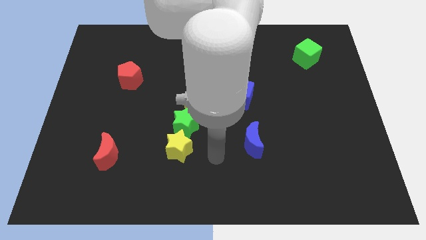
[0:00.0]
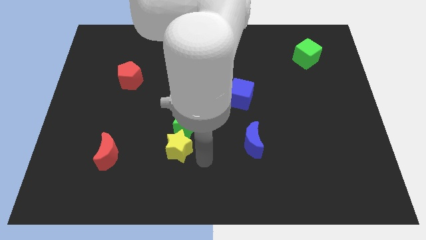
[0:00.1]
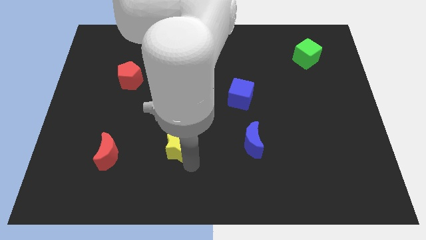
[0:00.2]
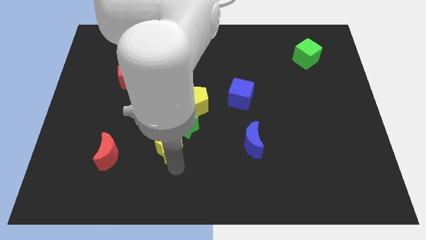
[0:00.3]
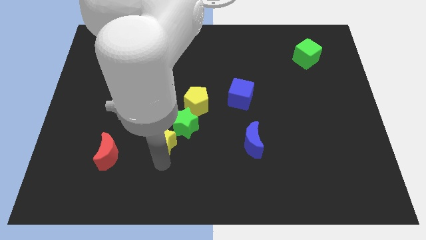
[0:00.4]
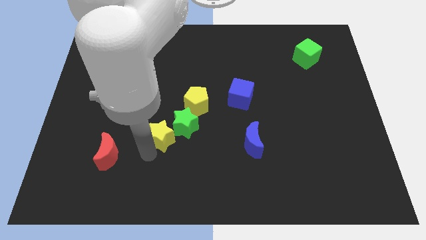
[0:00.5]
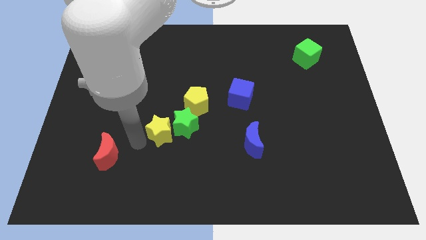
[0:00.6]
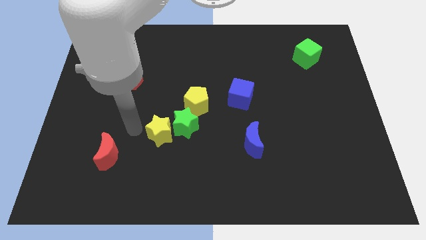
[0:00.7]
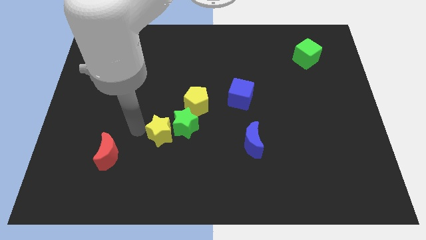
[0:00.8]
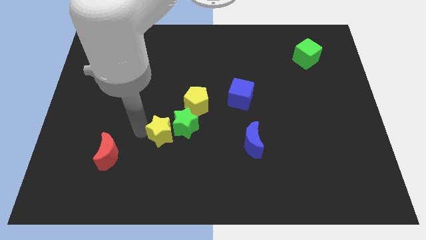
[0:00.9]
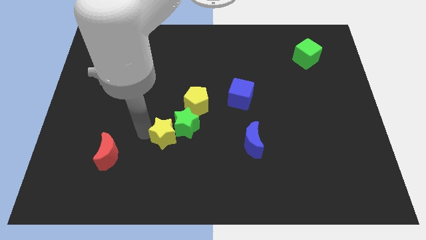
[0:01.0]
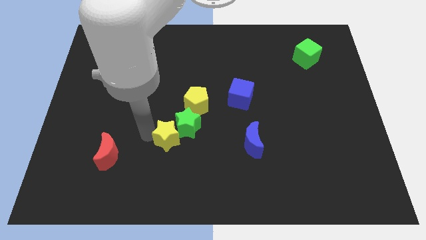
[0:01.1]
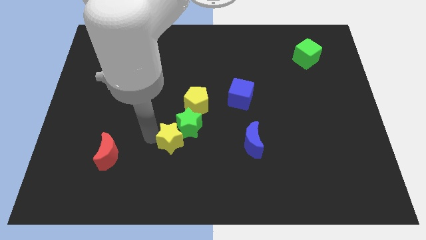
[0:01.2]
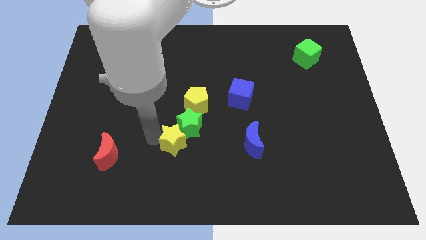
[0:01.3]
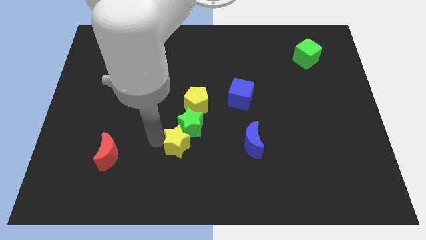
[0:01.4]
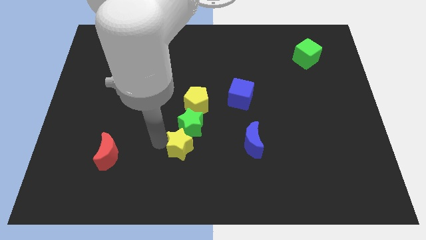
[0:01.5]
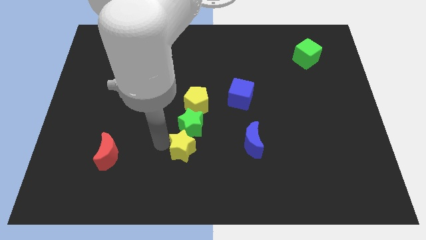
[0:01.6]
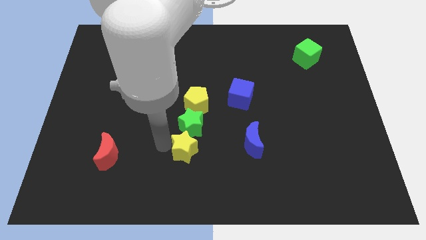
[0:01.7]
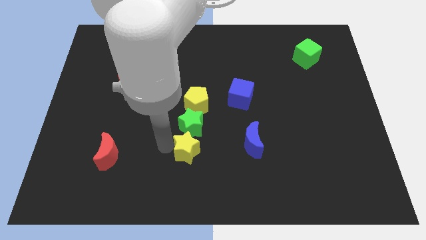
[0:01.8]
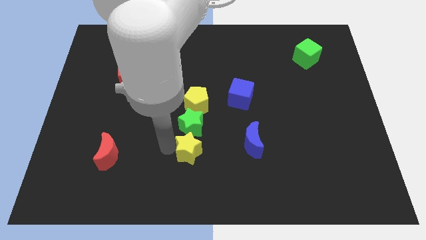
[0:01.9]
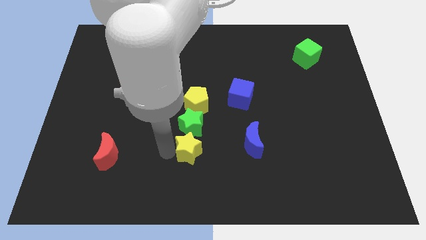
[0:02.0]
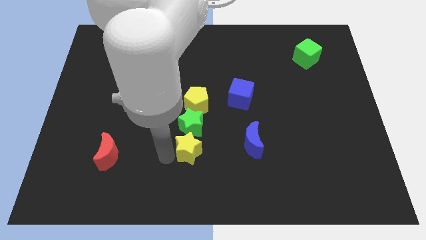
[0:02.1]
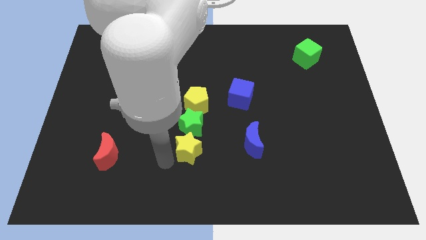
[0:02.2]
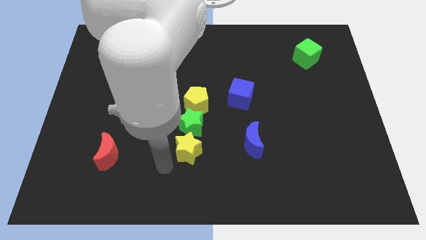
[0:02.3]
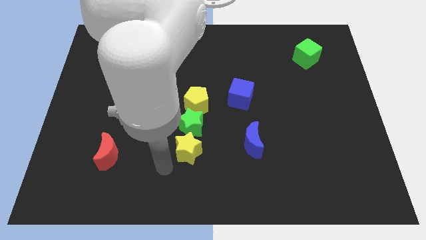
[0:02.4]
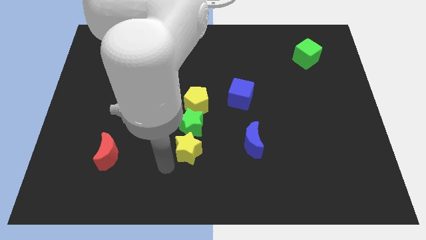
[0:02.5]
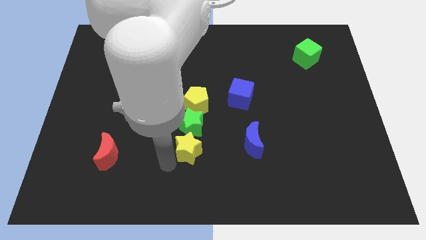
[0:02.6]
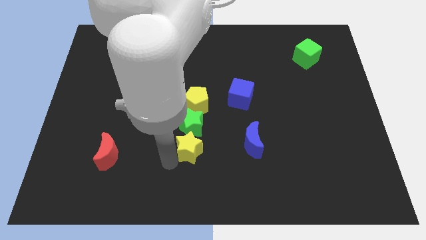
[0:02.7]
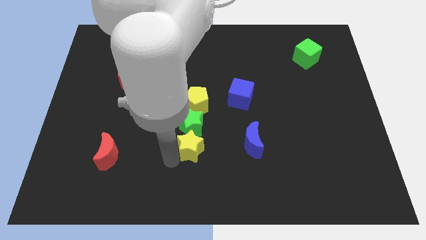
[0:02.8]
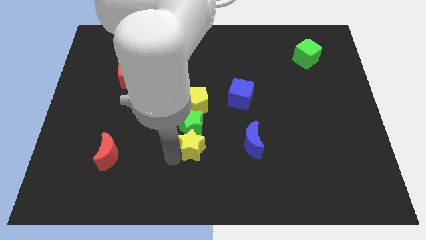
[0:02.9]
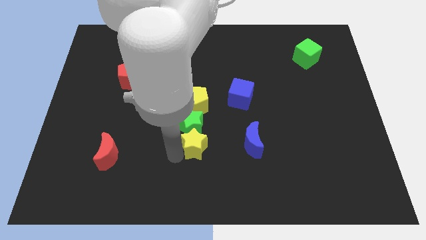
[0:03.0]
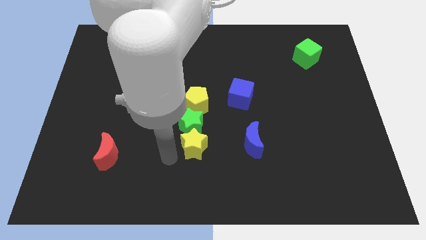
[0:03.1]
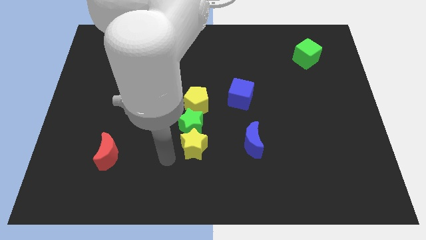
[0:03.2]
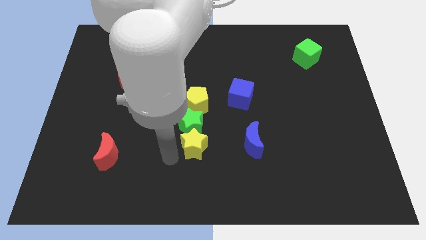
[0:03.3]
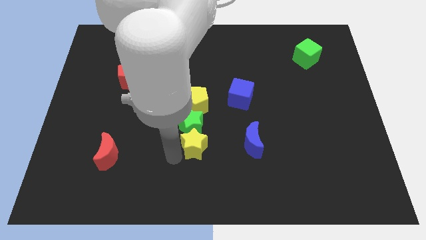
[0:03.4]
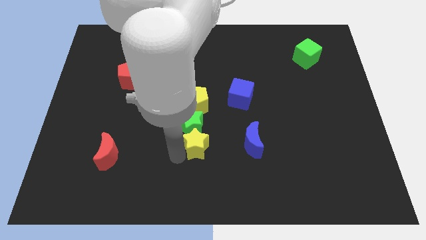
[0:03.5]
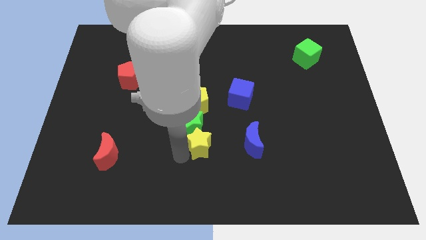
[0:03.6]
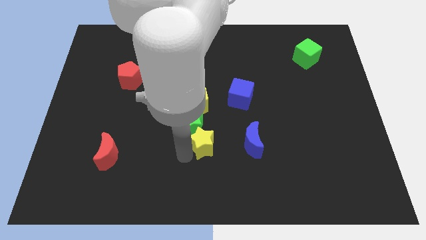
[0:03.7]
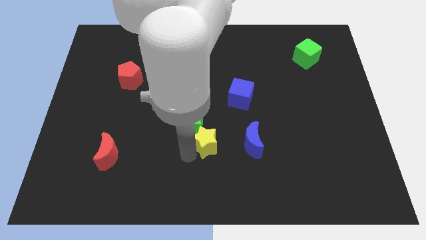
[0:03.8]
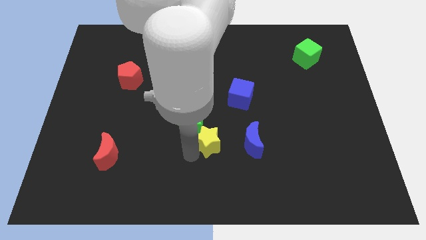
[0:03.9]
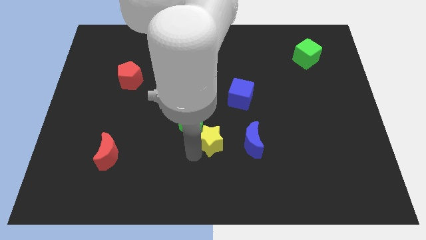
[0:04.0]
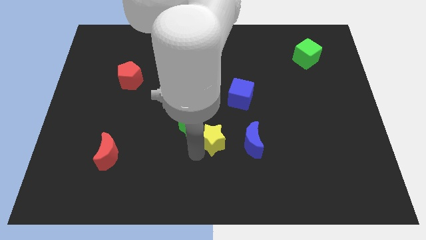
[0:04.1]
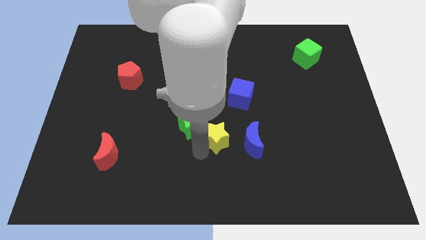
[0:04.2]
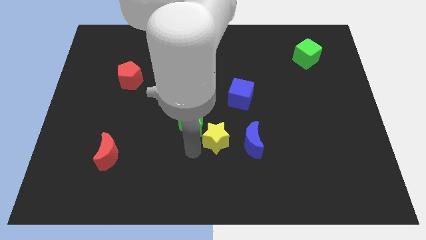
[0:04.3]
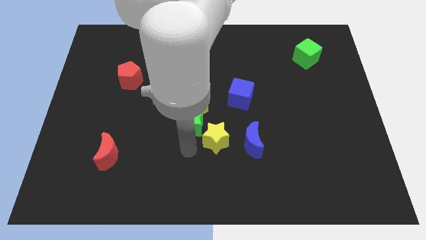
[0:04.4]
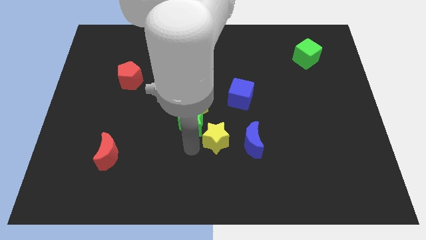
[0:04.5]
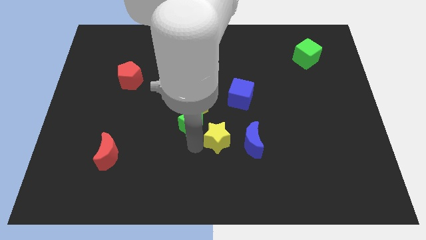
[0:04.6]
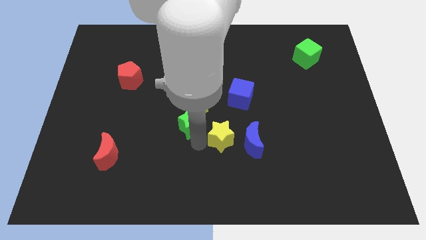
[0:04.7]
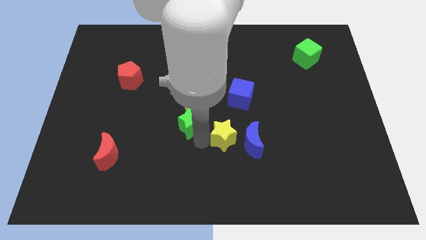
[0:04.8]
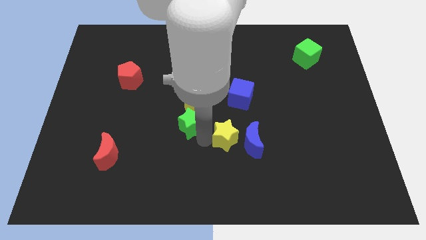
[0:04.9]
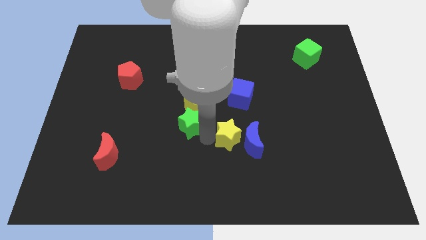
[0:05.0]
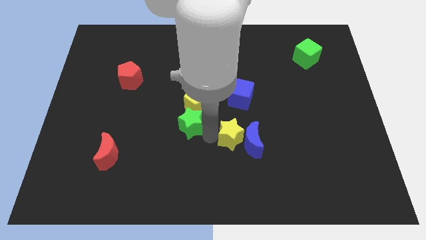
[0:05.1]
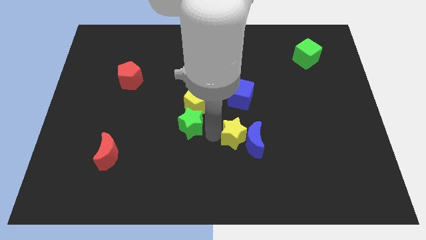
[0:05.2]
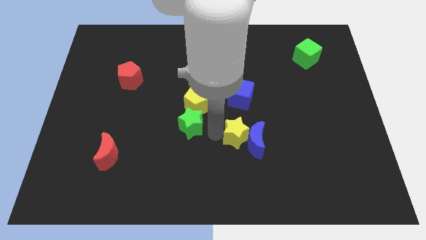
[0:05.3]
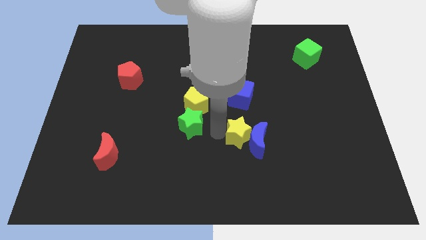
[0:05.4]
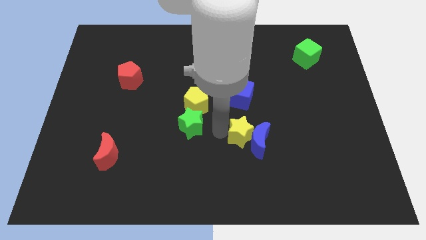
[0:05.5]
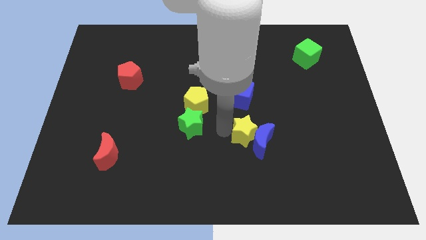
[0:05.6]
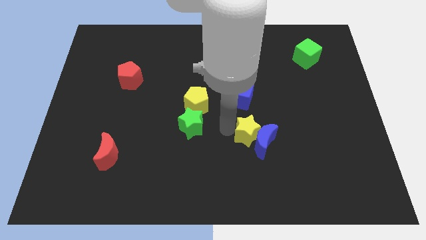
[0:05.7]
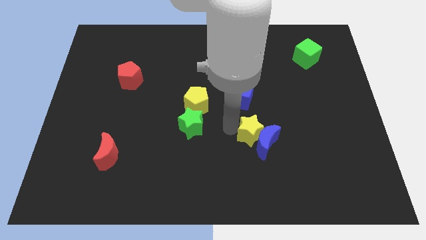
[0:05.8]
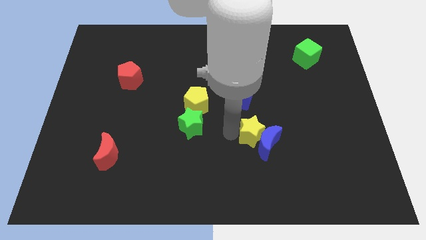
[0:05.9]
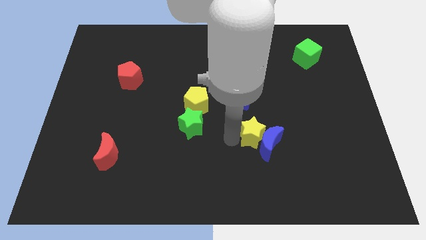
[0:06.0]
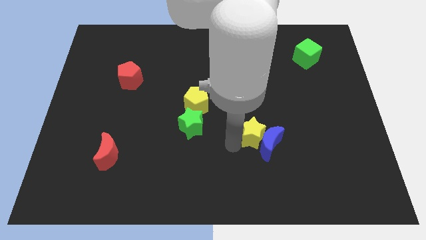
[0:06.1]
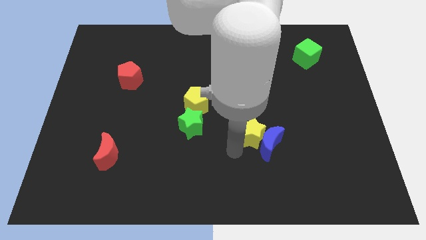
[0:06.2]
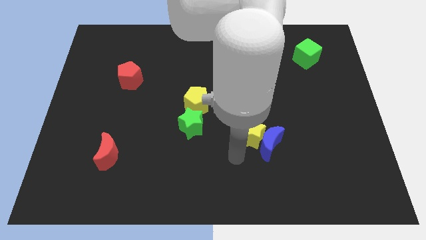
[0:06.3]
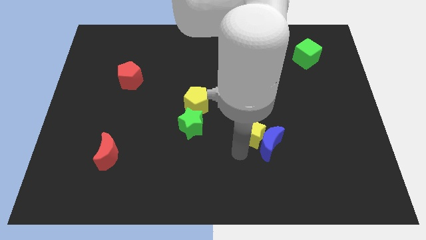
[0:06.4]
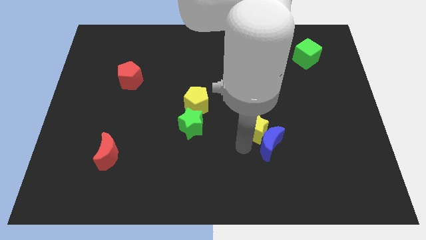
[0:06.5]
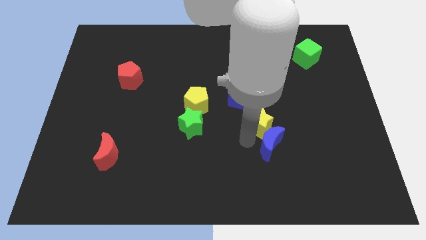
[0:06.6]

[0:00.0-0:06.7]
push the yellow star to the bottom right side of the blue cube

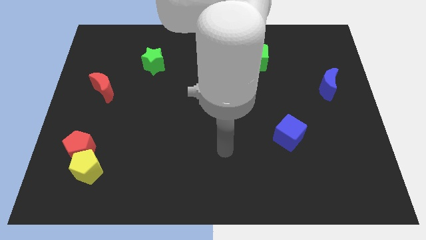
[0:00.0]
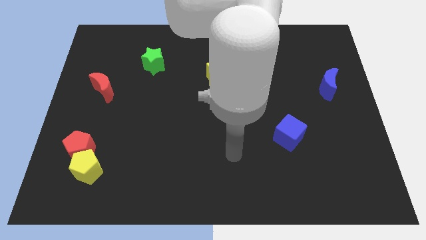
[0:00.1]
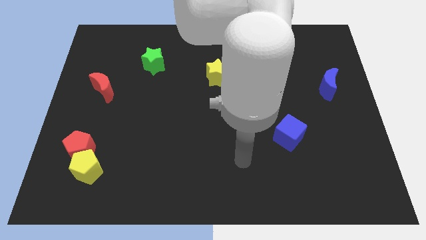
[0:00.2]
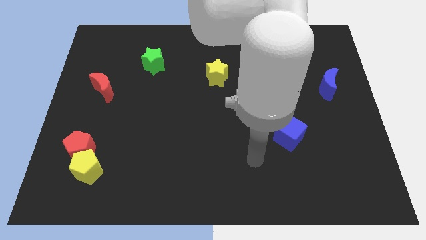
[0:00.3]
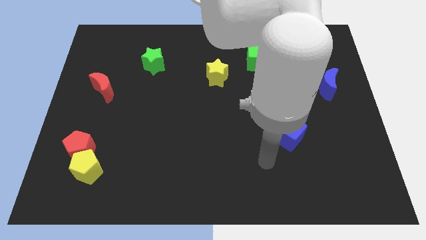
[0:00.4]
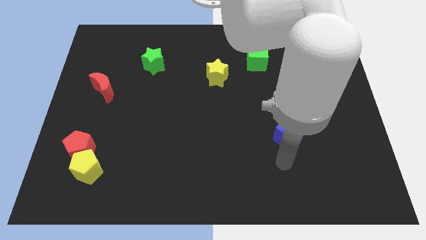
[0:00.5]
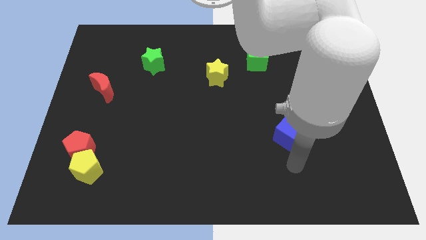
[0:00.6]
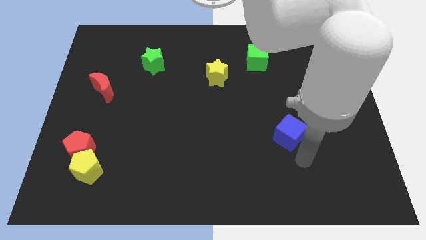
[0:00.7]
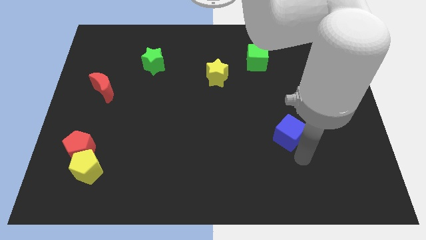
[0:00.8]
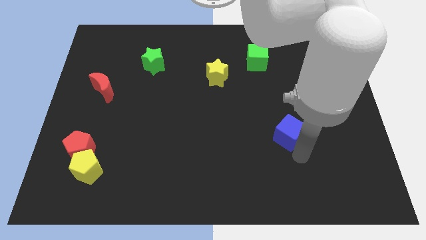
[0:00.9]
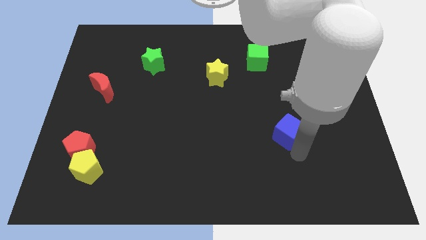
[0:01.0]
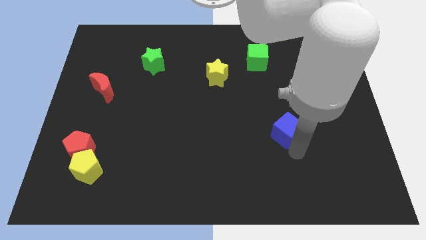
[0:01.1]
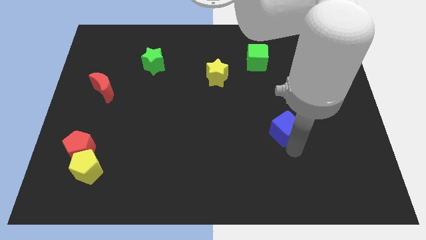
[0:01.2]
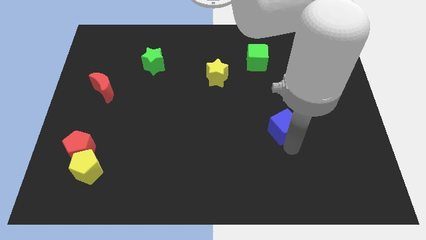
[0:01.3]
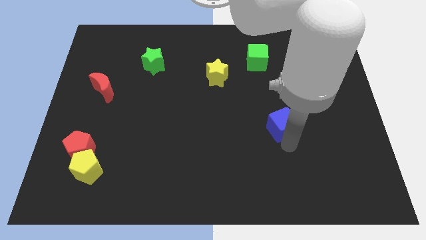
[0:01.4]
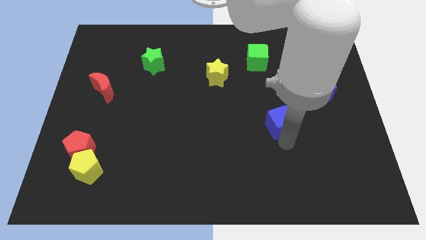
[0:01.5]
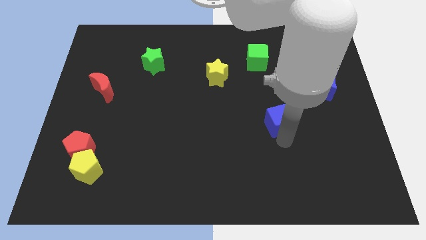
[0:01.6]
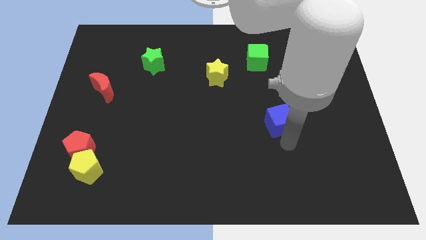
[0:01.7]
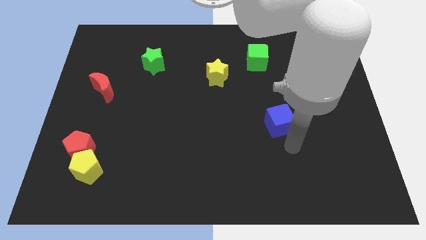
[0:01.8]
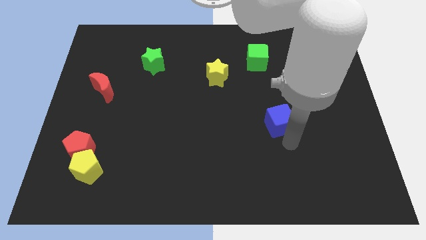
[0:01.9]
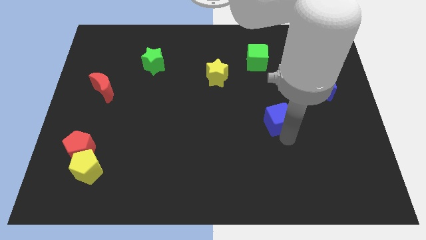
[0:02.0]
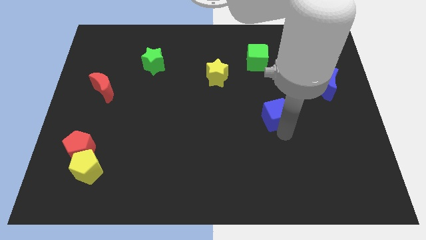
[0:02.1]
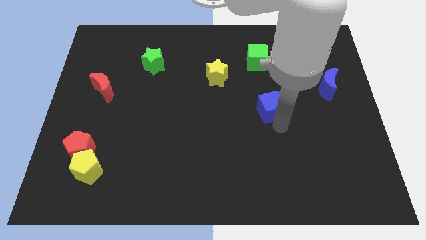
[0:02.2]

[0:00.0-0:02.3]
slide the blue cube to the bottom of the green cube
